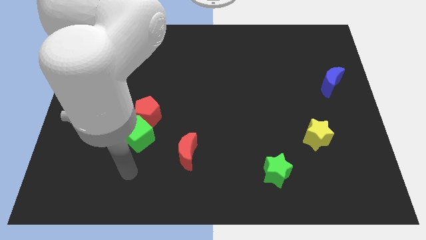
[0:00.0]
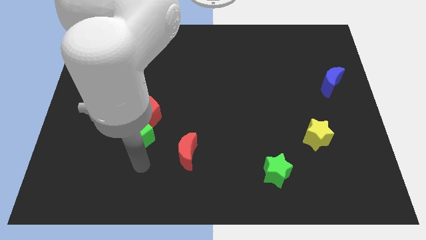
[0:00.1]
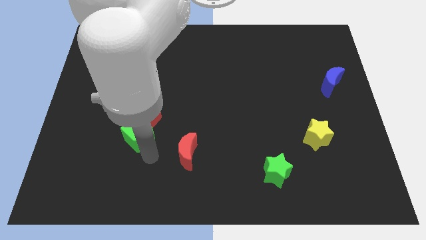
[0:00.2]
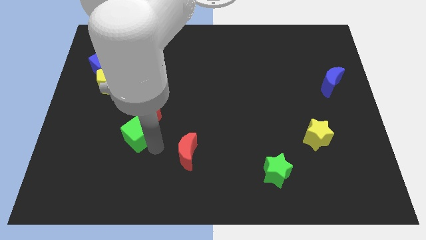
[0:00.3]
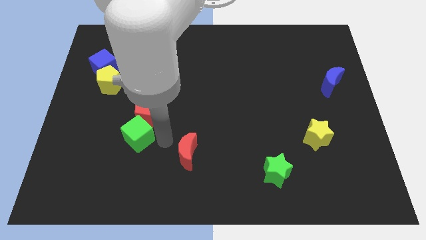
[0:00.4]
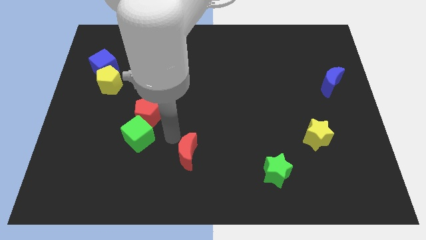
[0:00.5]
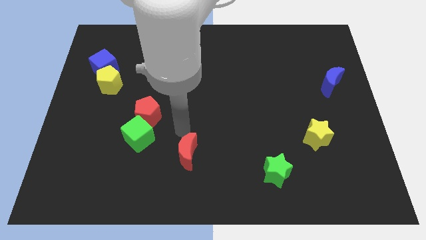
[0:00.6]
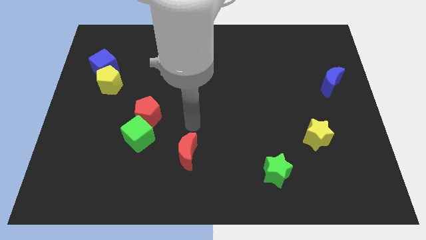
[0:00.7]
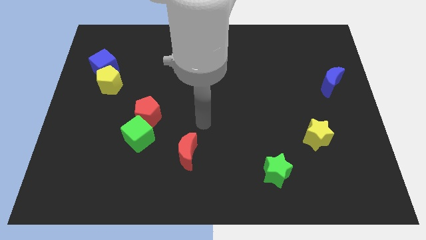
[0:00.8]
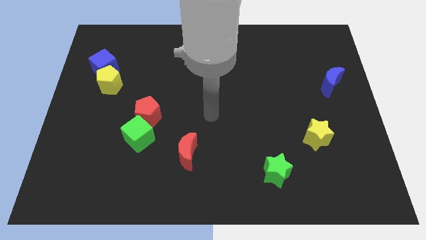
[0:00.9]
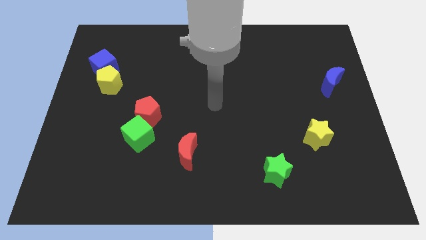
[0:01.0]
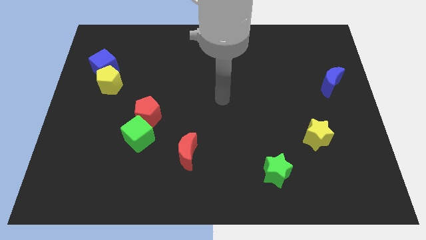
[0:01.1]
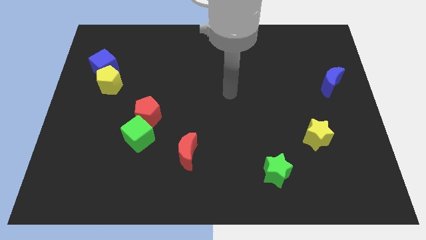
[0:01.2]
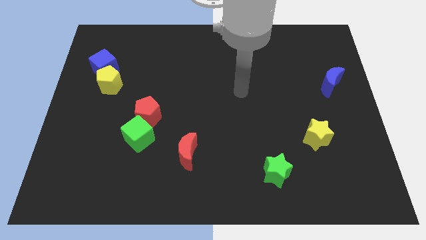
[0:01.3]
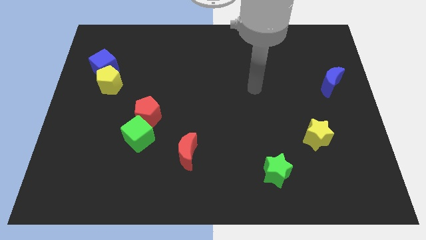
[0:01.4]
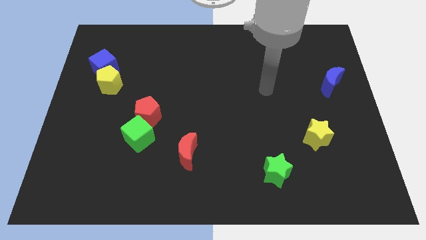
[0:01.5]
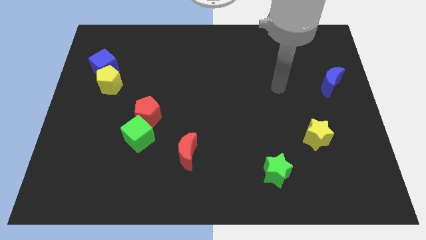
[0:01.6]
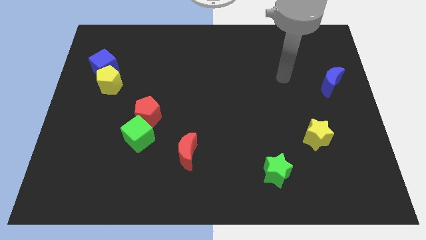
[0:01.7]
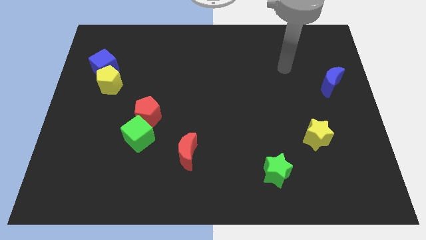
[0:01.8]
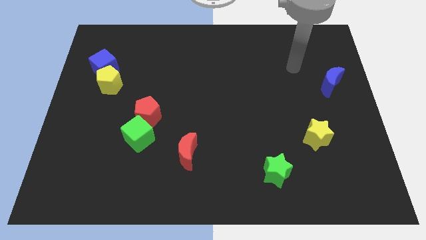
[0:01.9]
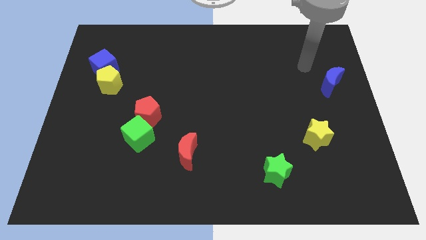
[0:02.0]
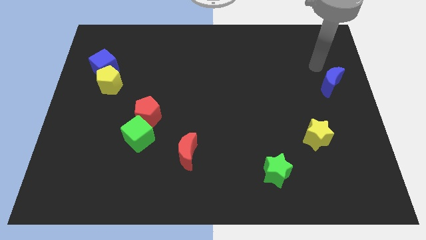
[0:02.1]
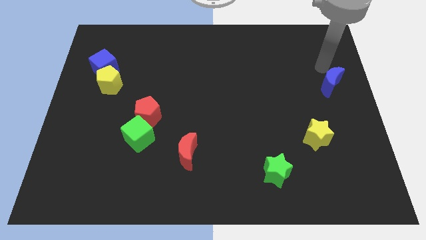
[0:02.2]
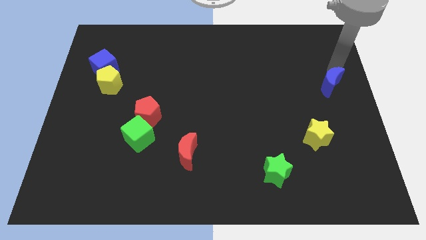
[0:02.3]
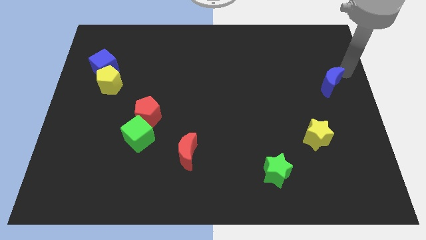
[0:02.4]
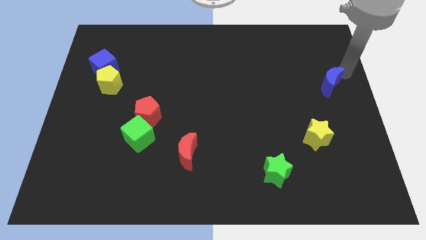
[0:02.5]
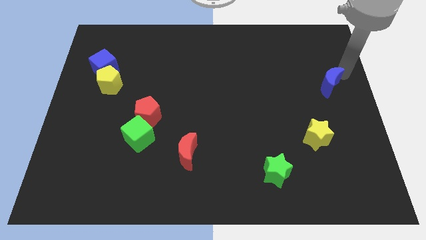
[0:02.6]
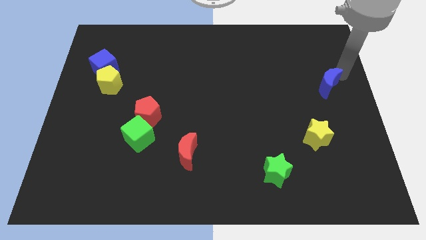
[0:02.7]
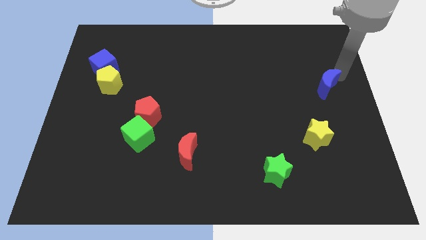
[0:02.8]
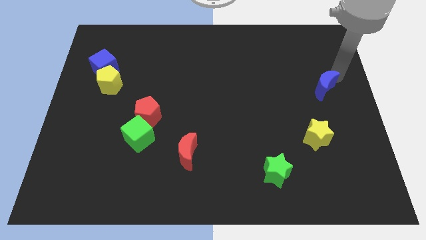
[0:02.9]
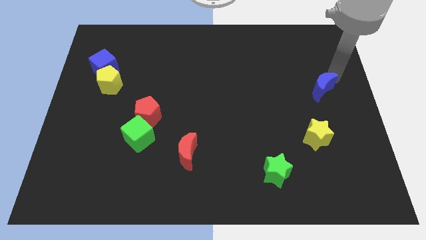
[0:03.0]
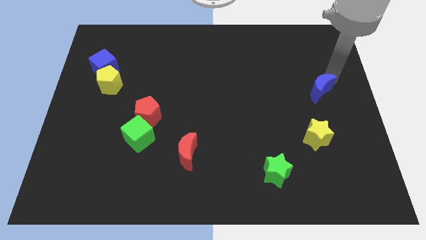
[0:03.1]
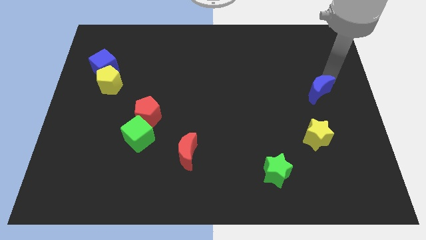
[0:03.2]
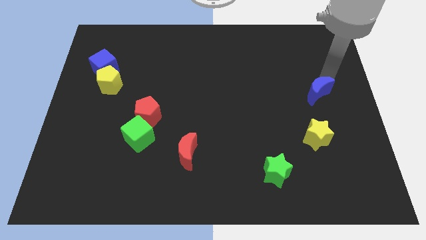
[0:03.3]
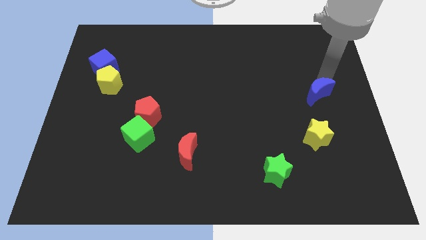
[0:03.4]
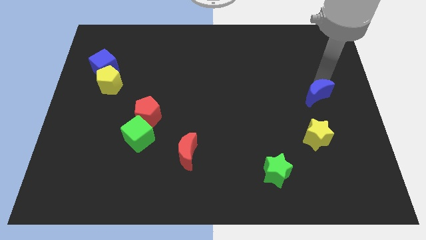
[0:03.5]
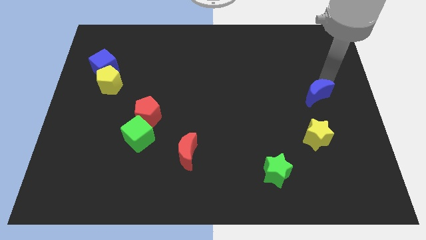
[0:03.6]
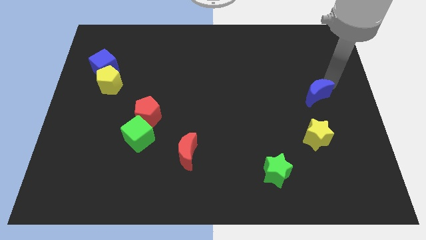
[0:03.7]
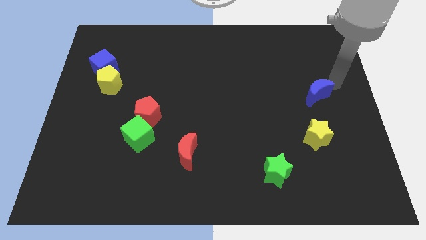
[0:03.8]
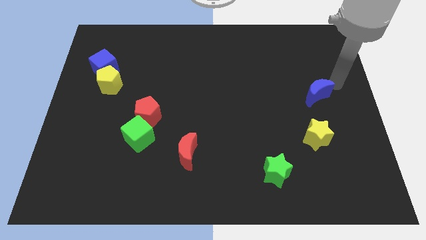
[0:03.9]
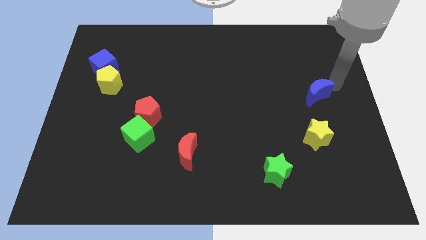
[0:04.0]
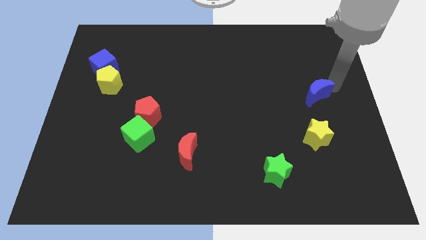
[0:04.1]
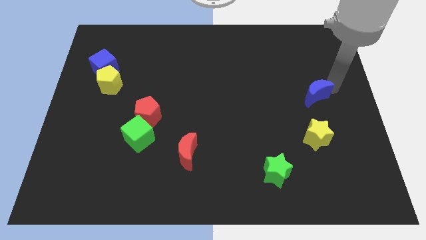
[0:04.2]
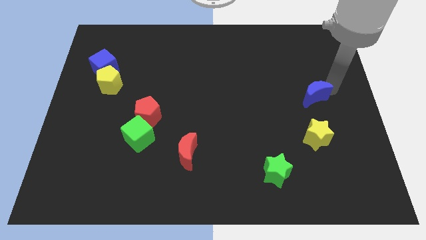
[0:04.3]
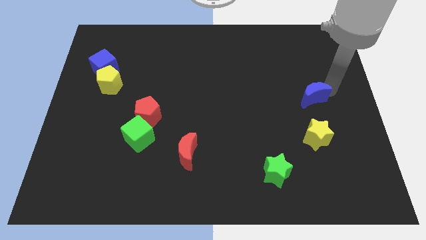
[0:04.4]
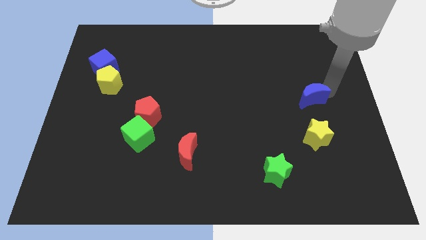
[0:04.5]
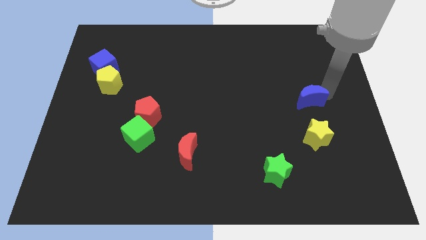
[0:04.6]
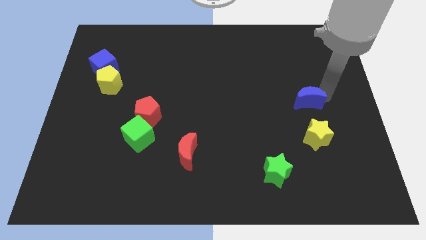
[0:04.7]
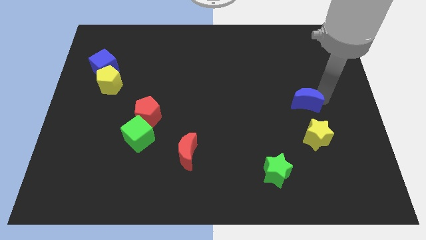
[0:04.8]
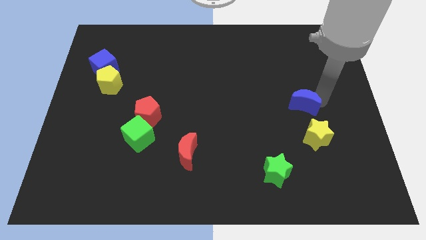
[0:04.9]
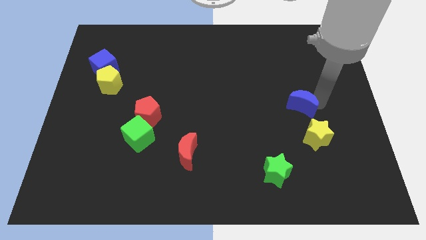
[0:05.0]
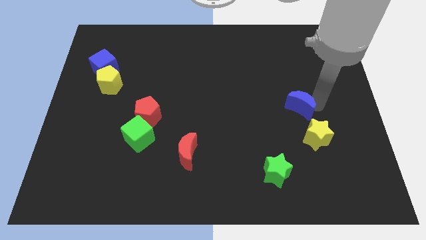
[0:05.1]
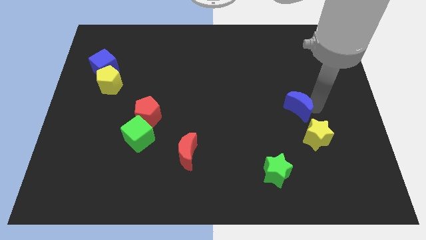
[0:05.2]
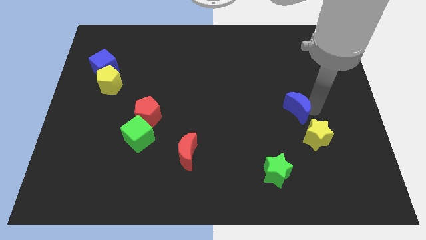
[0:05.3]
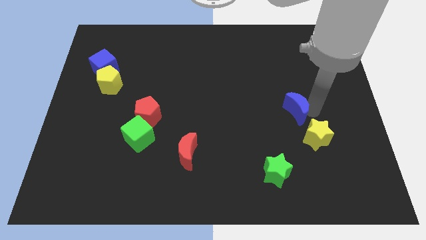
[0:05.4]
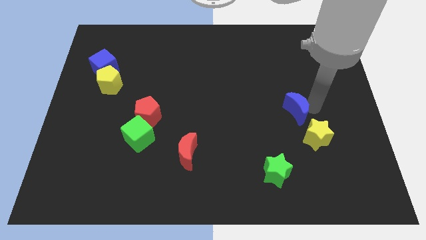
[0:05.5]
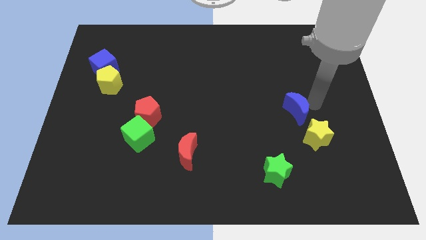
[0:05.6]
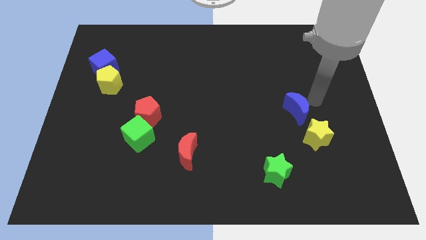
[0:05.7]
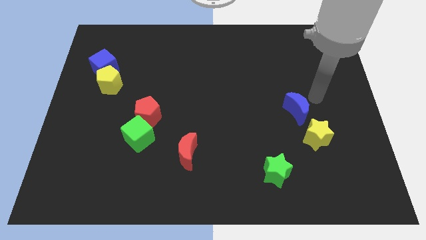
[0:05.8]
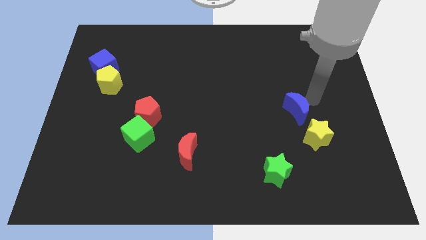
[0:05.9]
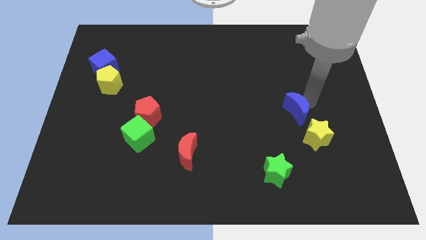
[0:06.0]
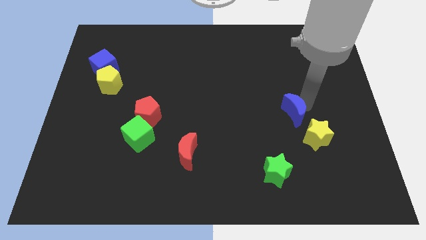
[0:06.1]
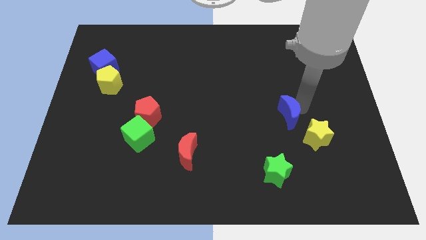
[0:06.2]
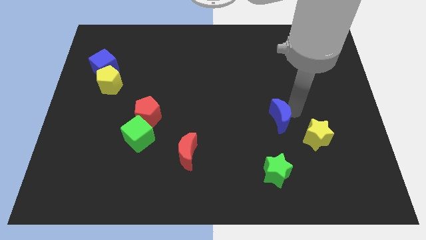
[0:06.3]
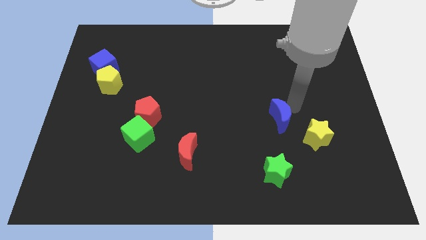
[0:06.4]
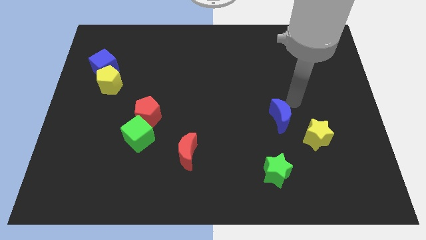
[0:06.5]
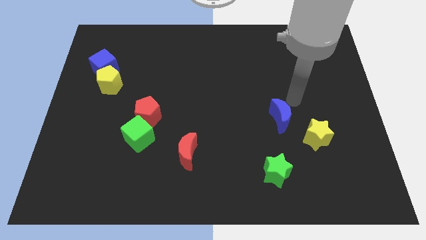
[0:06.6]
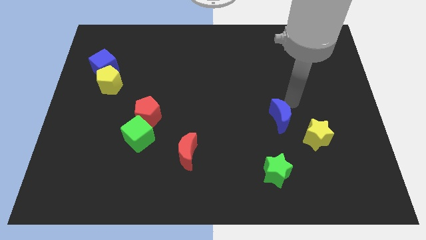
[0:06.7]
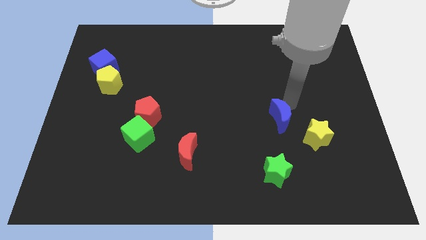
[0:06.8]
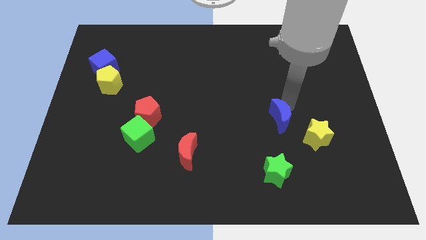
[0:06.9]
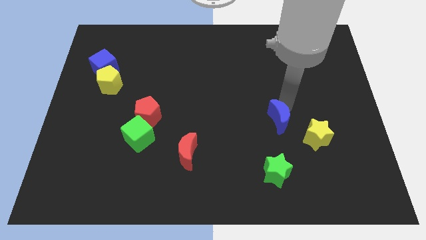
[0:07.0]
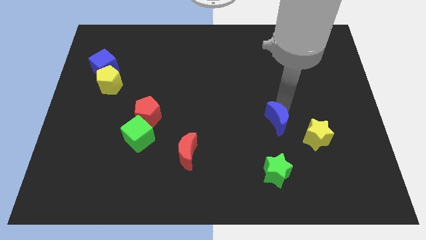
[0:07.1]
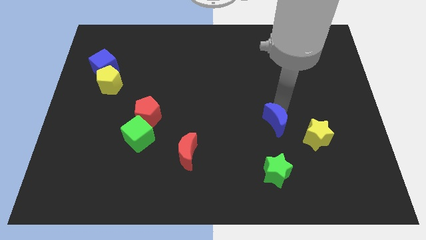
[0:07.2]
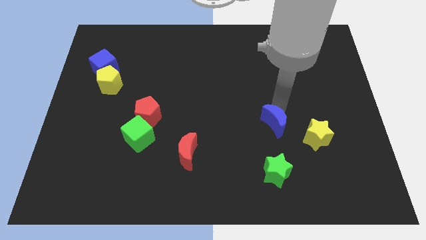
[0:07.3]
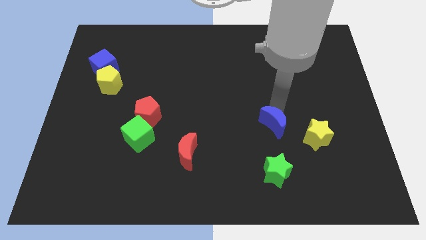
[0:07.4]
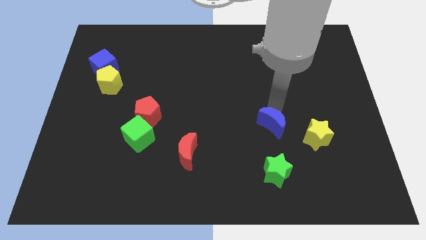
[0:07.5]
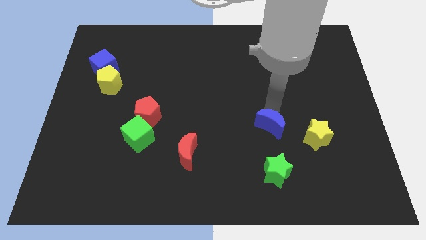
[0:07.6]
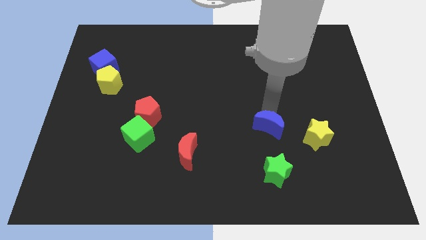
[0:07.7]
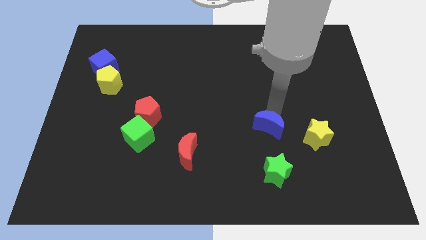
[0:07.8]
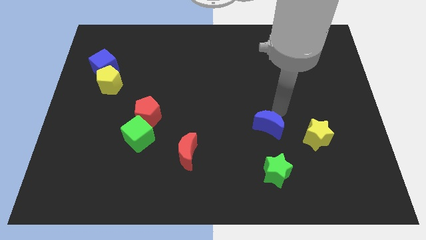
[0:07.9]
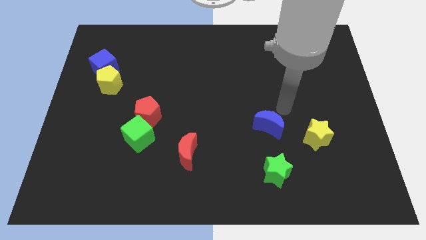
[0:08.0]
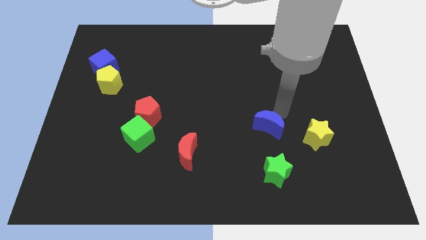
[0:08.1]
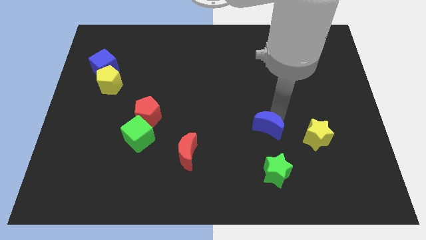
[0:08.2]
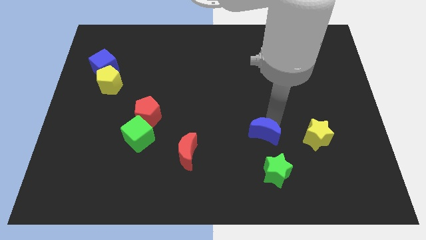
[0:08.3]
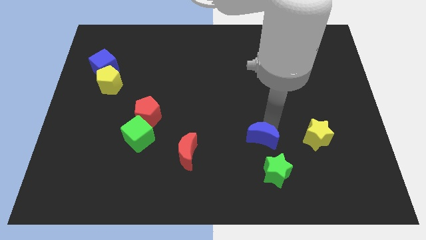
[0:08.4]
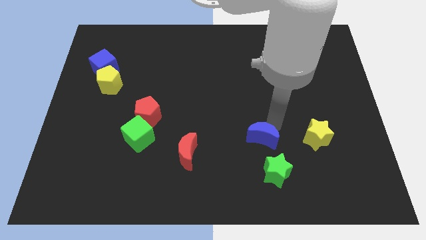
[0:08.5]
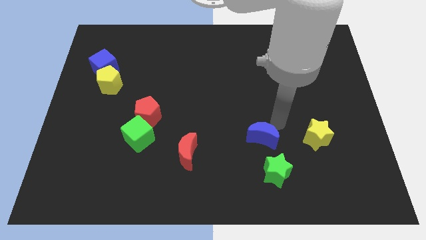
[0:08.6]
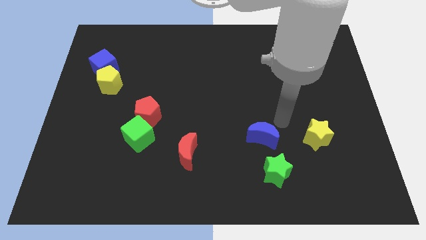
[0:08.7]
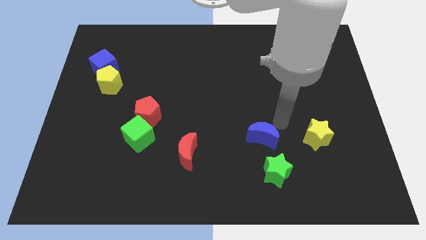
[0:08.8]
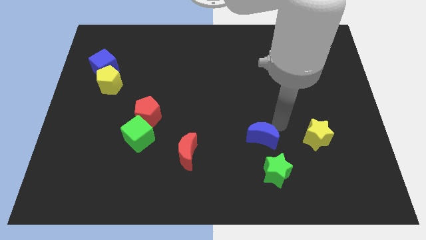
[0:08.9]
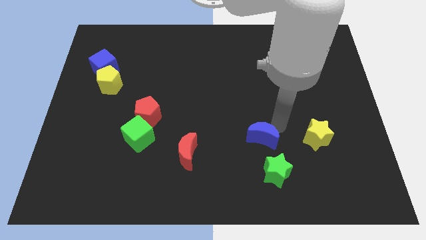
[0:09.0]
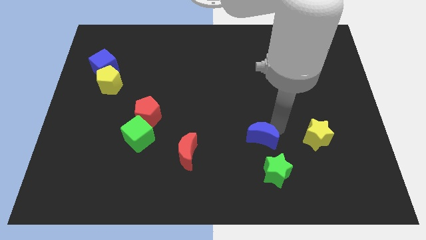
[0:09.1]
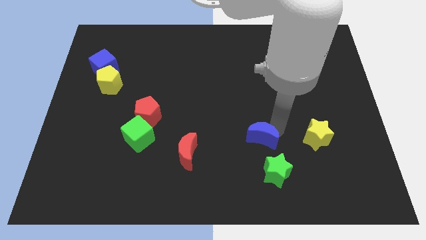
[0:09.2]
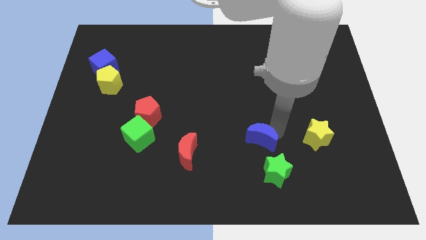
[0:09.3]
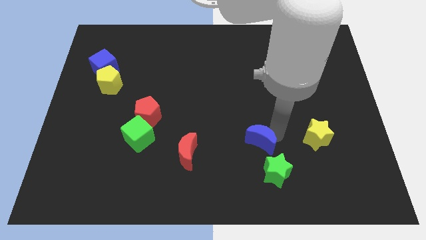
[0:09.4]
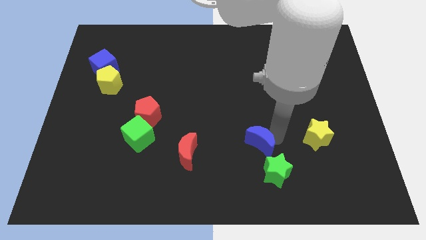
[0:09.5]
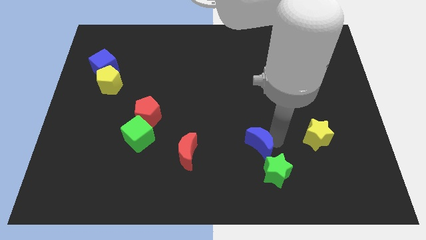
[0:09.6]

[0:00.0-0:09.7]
put the blue moon to the right side of the red moon
